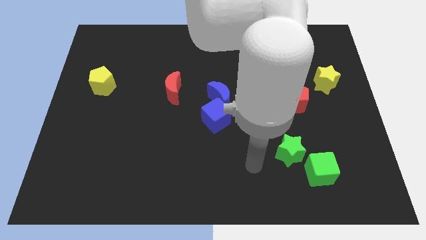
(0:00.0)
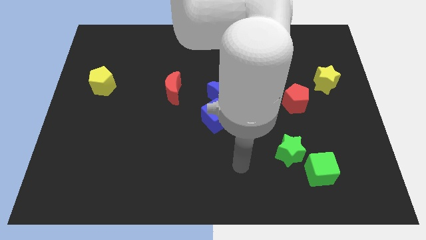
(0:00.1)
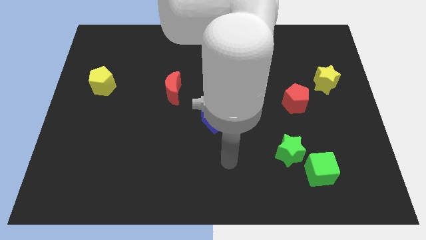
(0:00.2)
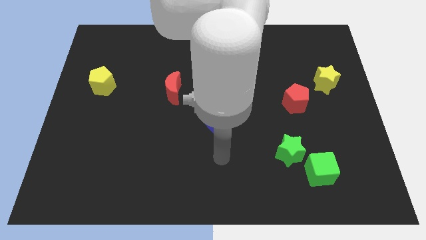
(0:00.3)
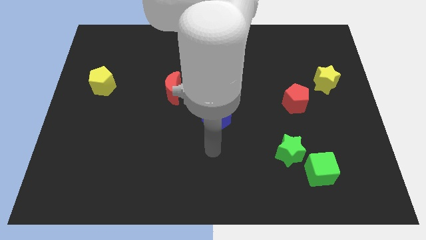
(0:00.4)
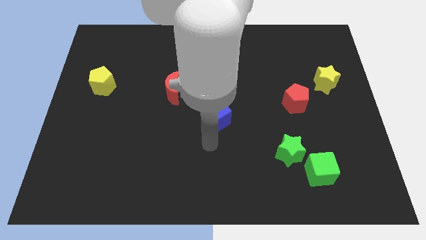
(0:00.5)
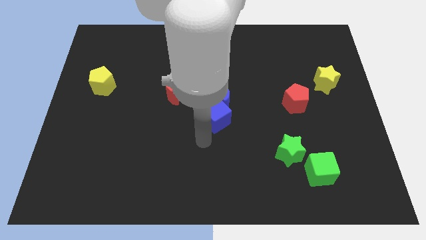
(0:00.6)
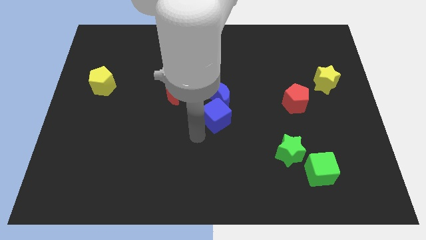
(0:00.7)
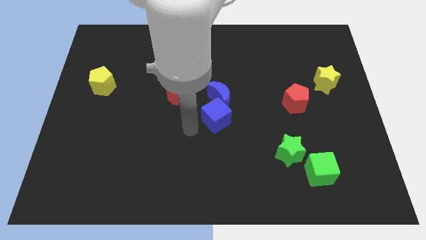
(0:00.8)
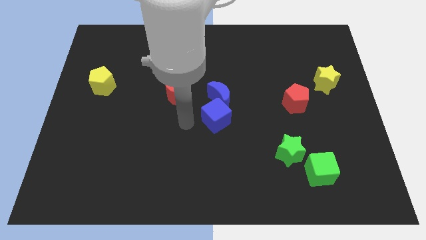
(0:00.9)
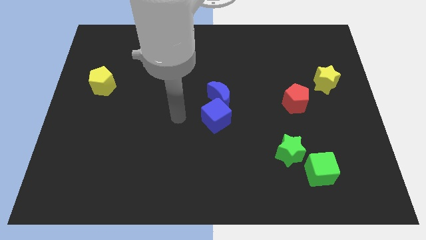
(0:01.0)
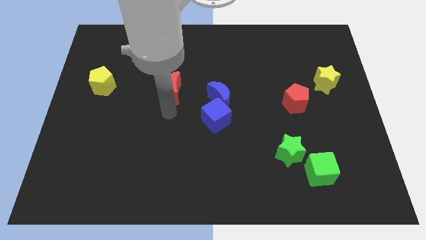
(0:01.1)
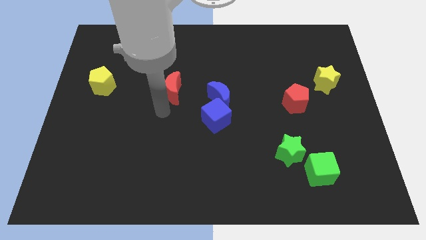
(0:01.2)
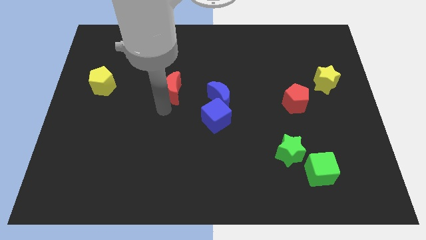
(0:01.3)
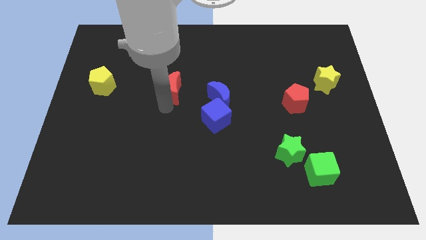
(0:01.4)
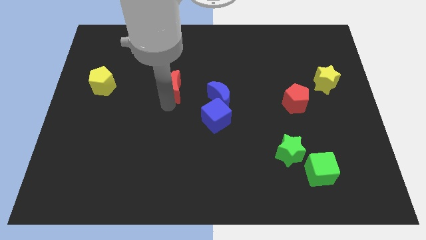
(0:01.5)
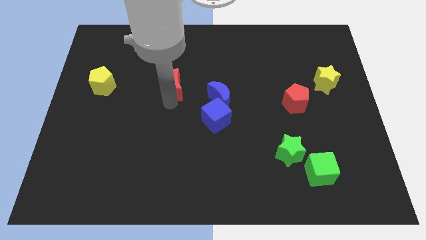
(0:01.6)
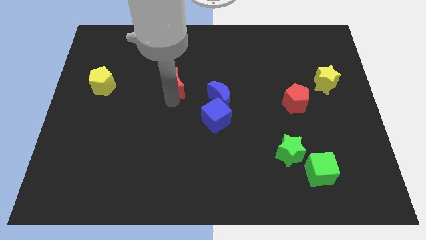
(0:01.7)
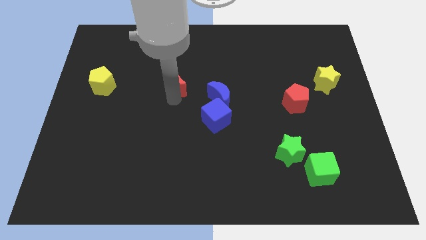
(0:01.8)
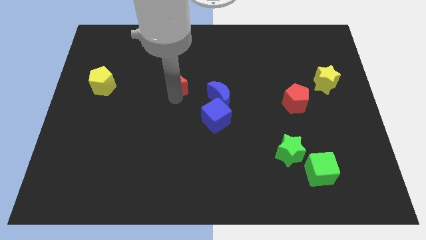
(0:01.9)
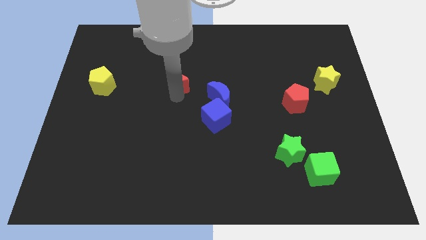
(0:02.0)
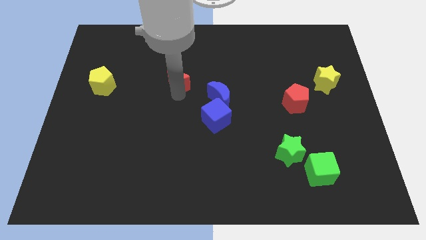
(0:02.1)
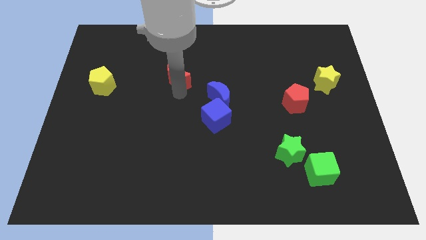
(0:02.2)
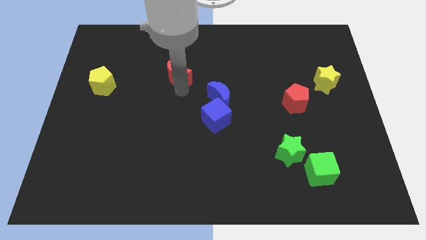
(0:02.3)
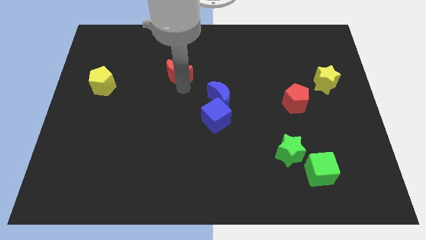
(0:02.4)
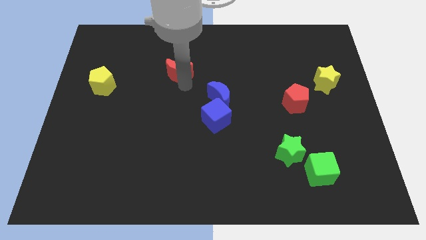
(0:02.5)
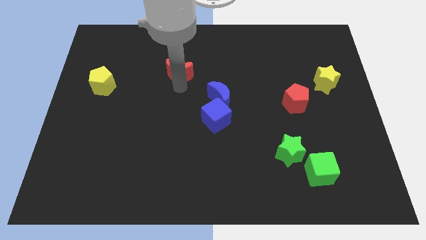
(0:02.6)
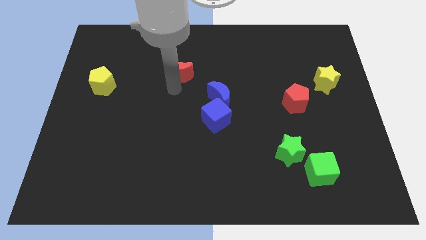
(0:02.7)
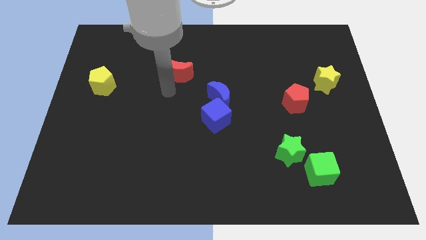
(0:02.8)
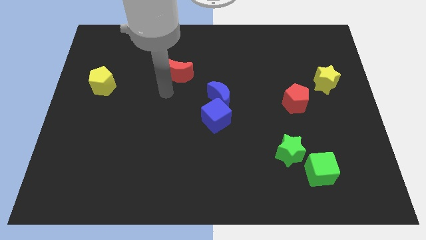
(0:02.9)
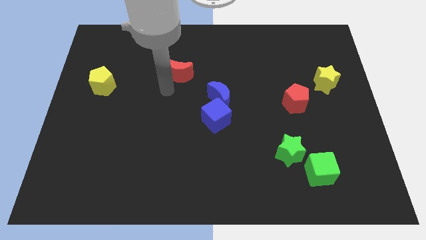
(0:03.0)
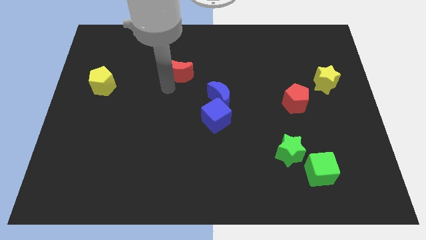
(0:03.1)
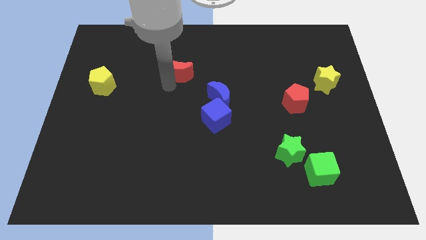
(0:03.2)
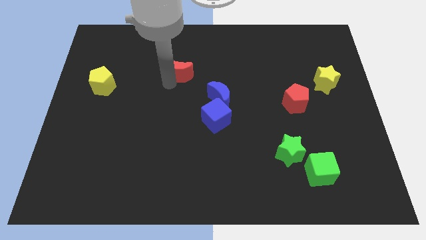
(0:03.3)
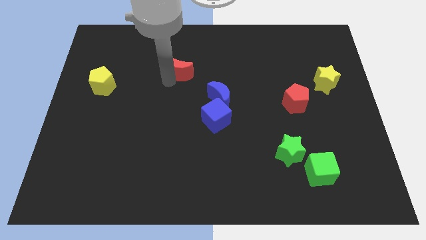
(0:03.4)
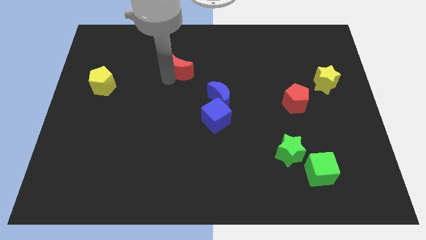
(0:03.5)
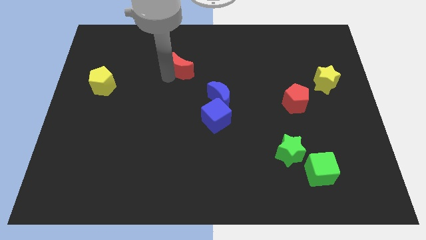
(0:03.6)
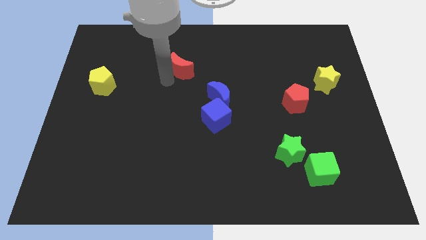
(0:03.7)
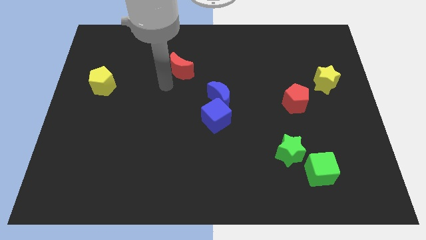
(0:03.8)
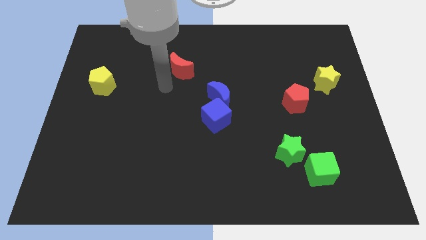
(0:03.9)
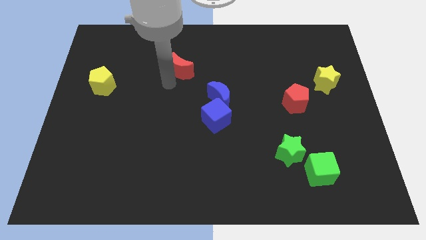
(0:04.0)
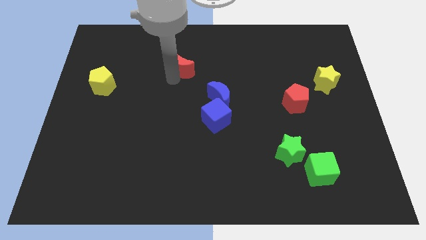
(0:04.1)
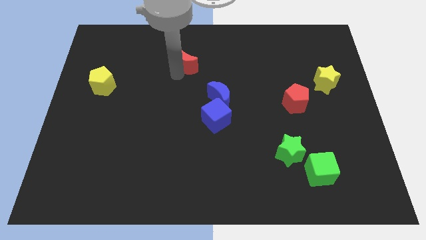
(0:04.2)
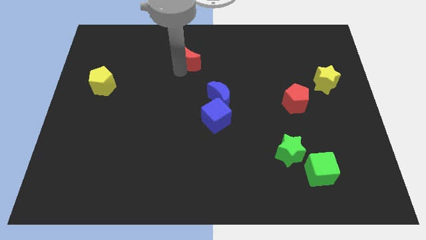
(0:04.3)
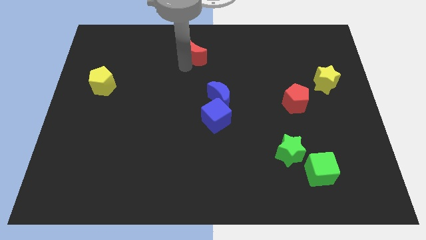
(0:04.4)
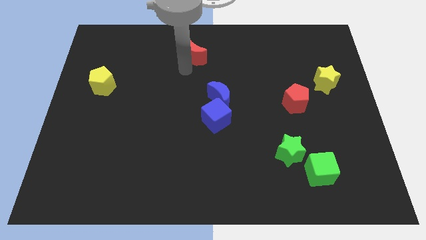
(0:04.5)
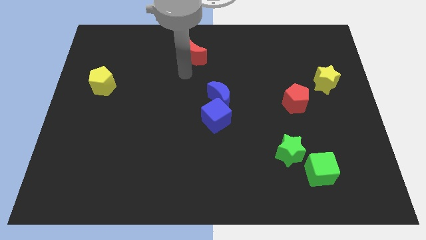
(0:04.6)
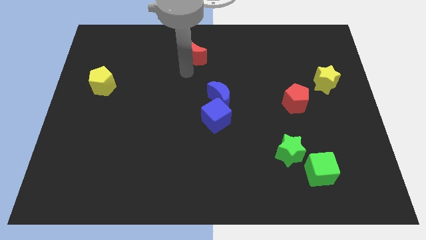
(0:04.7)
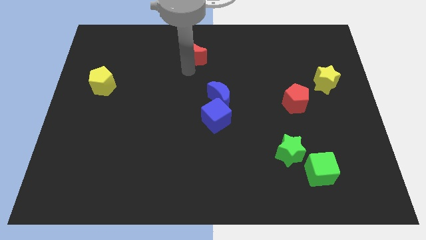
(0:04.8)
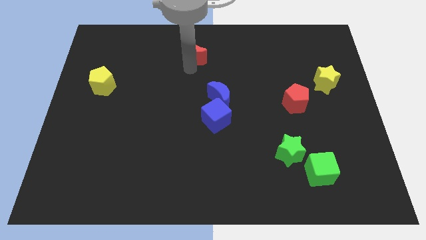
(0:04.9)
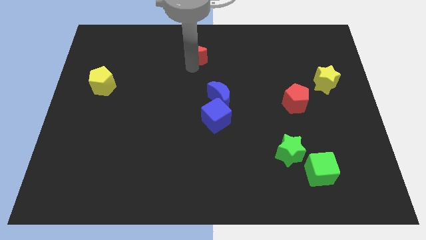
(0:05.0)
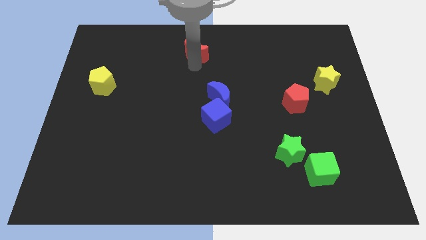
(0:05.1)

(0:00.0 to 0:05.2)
move the red moon to the top side
